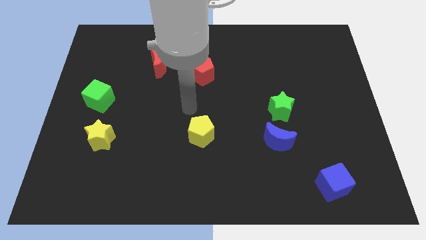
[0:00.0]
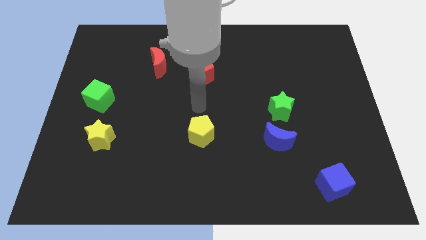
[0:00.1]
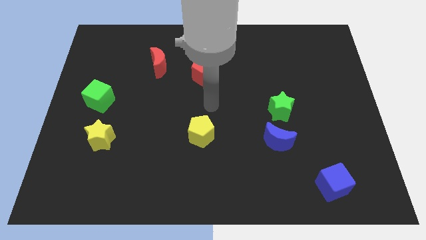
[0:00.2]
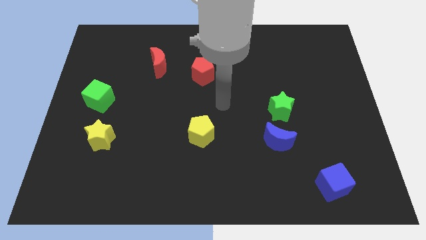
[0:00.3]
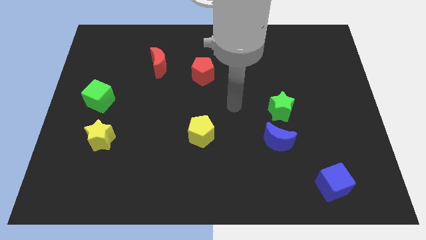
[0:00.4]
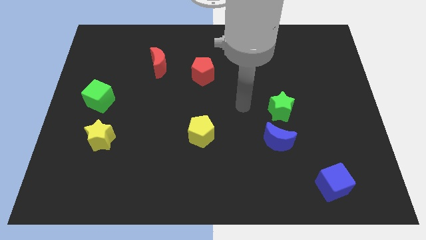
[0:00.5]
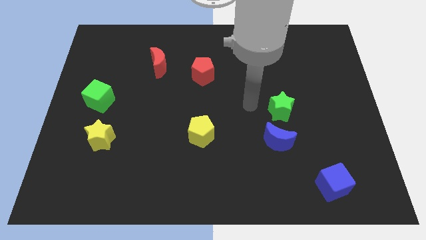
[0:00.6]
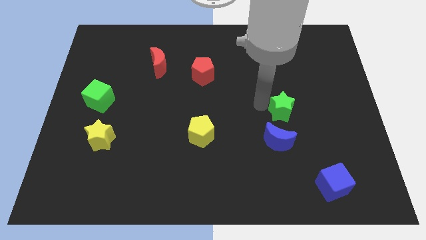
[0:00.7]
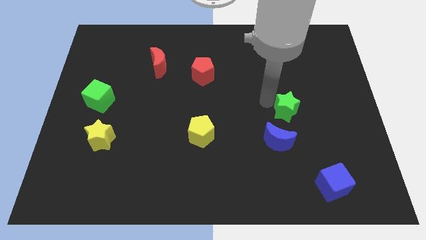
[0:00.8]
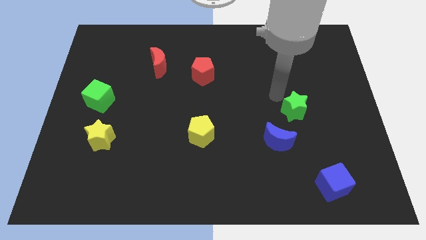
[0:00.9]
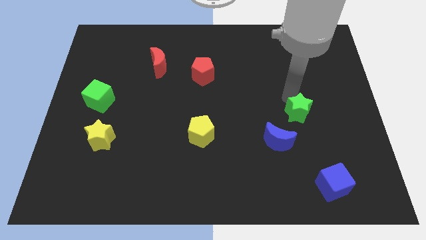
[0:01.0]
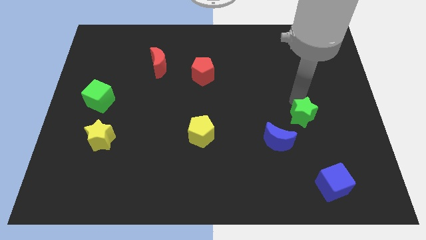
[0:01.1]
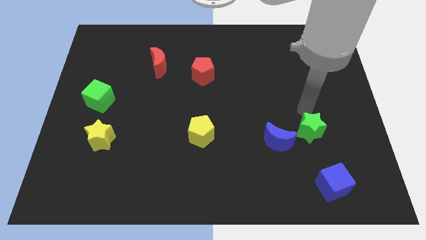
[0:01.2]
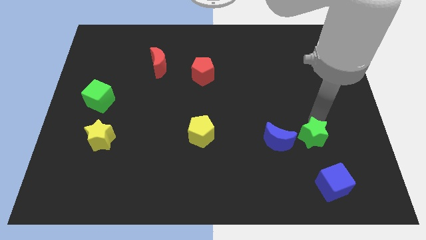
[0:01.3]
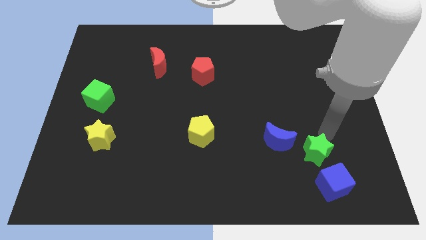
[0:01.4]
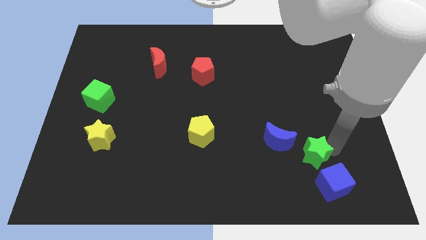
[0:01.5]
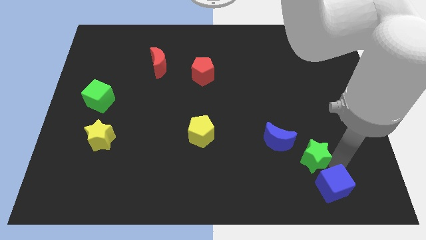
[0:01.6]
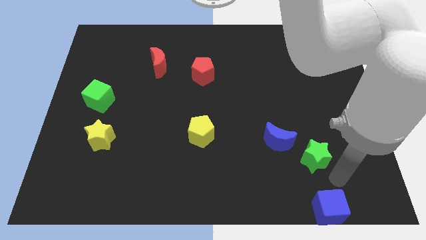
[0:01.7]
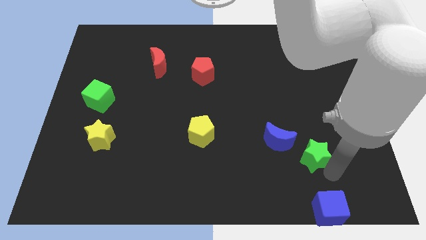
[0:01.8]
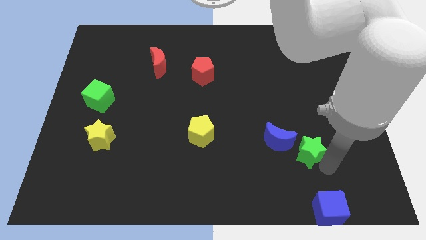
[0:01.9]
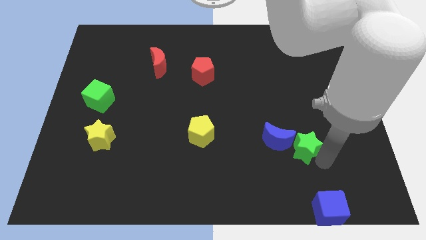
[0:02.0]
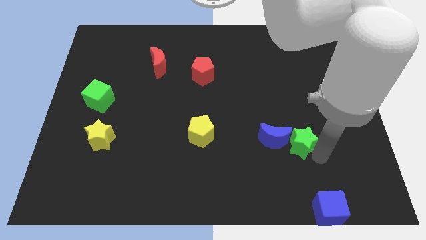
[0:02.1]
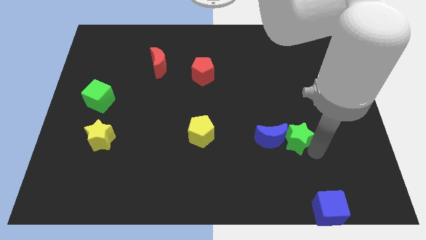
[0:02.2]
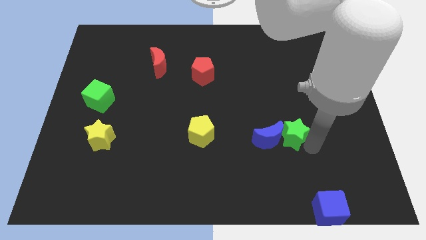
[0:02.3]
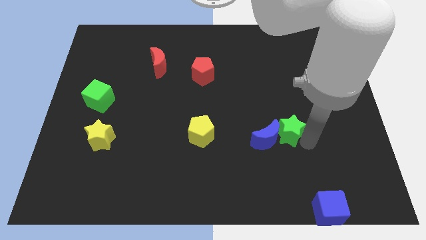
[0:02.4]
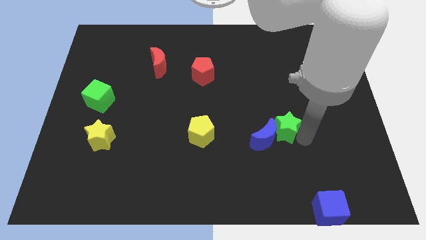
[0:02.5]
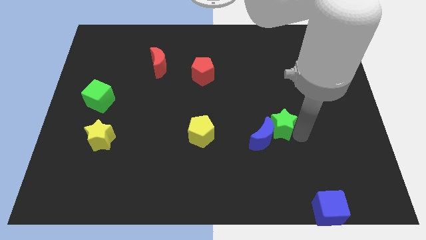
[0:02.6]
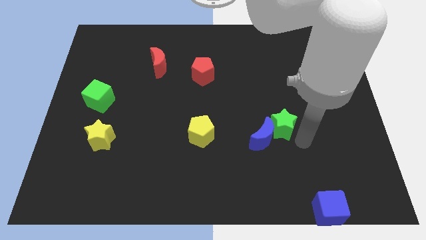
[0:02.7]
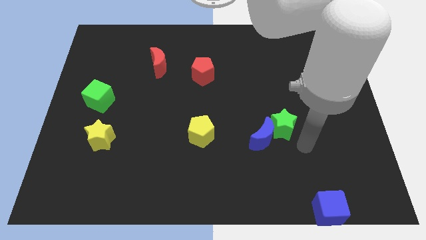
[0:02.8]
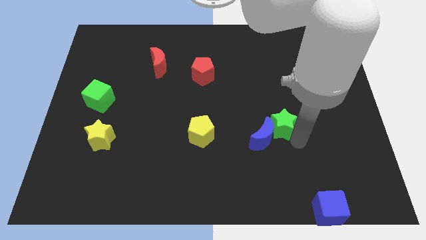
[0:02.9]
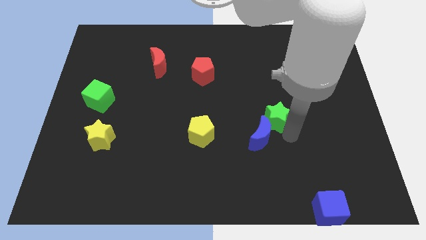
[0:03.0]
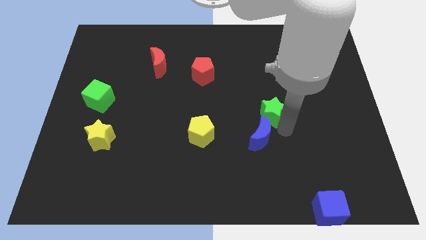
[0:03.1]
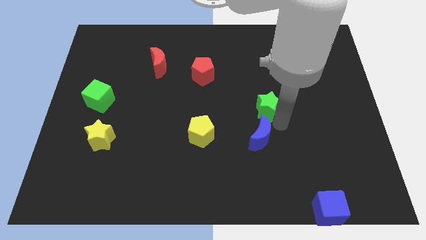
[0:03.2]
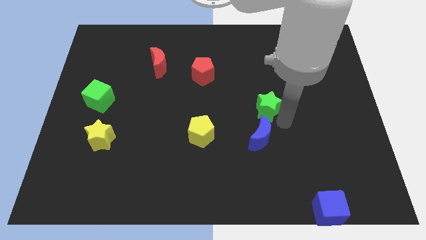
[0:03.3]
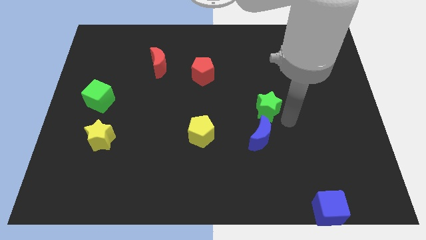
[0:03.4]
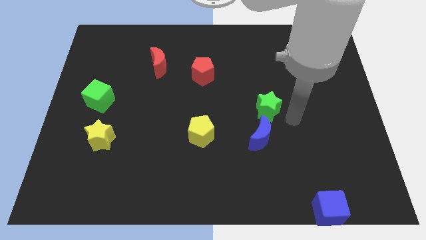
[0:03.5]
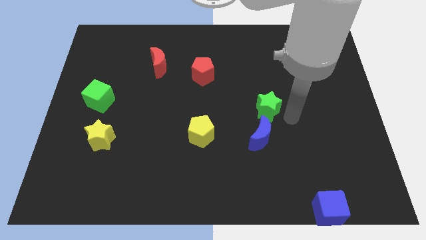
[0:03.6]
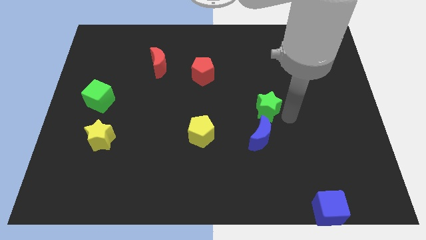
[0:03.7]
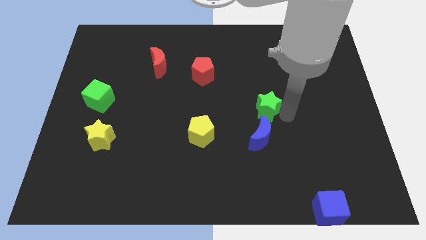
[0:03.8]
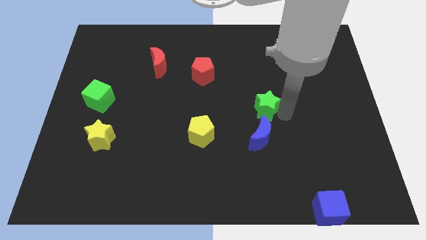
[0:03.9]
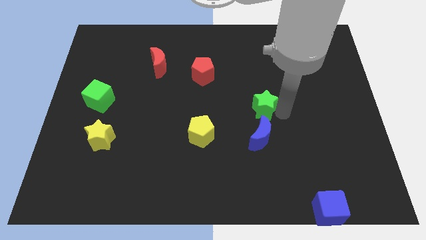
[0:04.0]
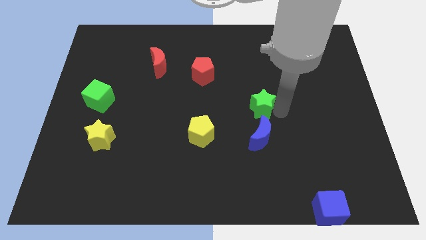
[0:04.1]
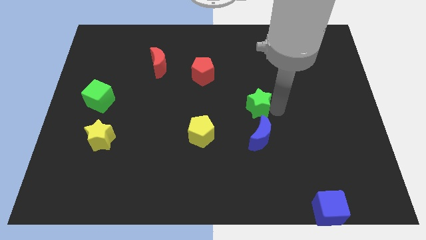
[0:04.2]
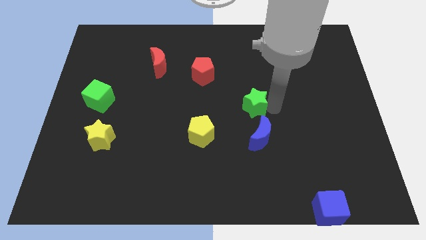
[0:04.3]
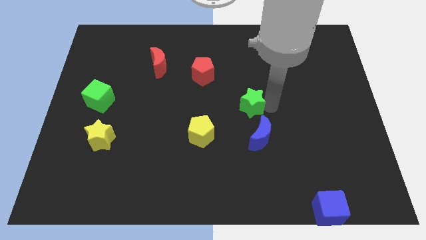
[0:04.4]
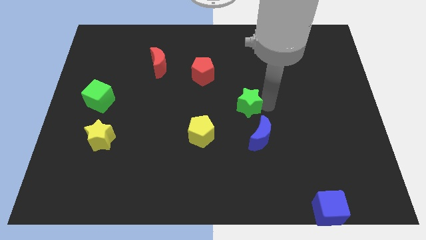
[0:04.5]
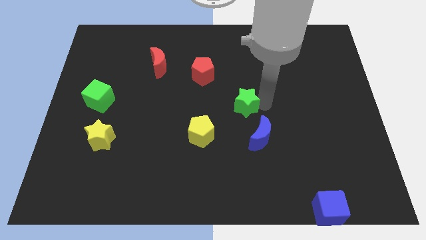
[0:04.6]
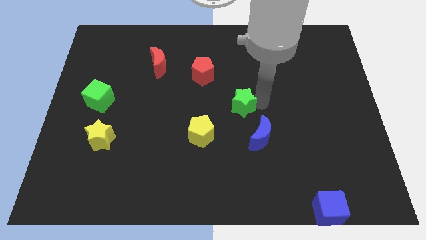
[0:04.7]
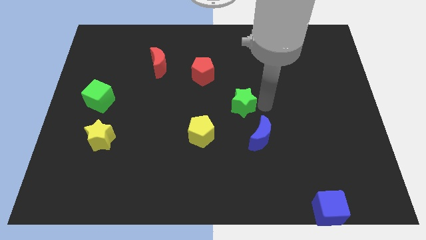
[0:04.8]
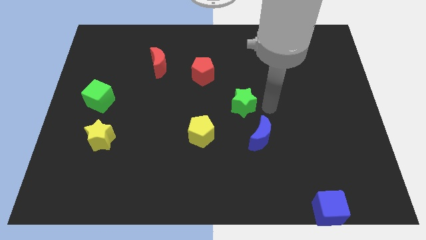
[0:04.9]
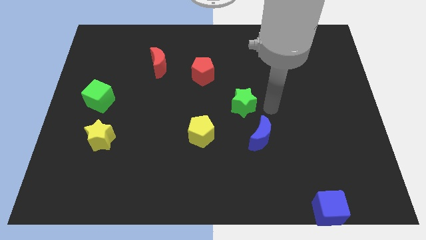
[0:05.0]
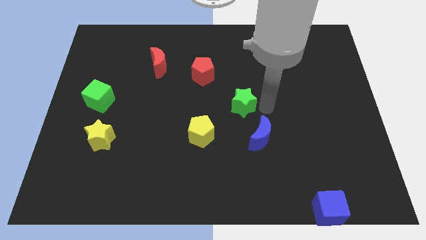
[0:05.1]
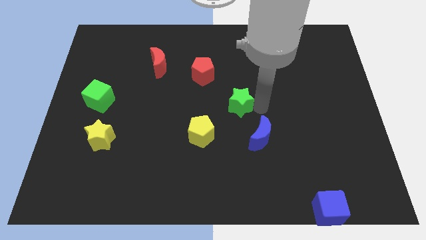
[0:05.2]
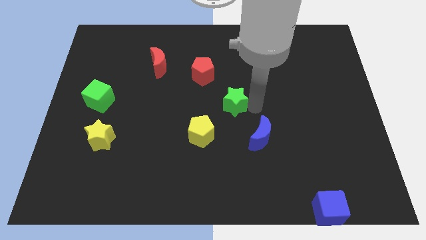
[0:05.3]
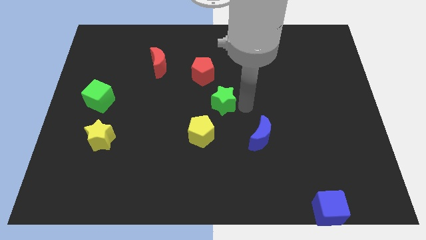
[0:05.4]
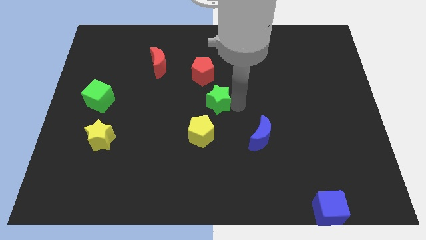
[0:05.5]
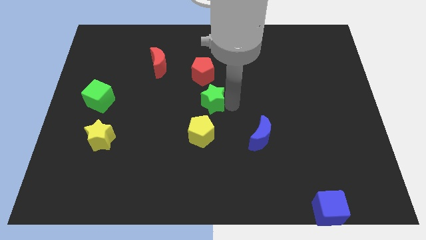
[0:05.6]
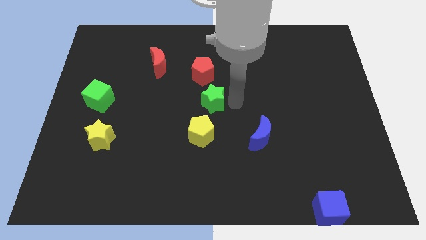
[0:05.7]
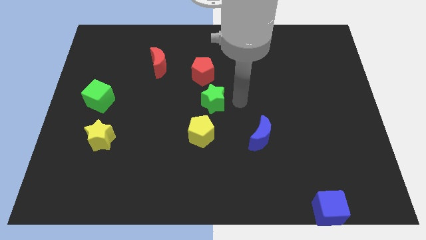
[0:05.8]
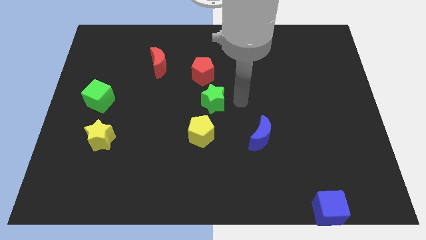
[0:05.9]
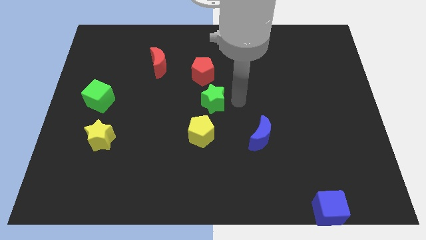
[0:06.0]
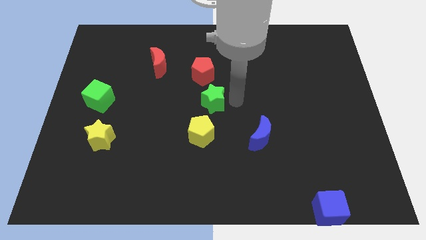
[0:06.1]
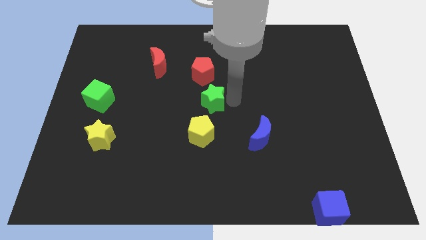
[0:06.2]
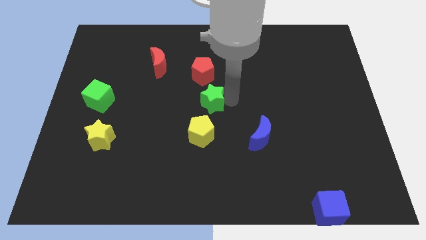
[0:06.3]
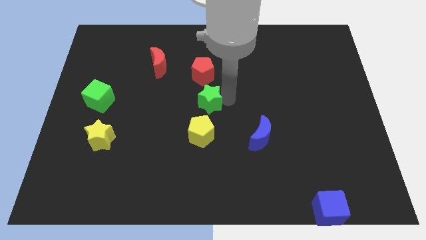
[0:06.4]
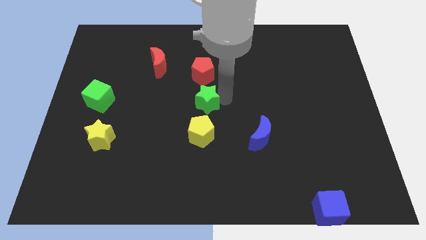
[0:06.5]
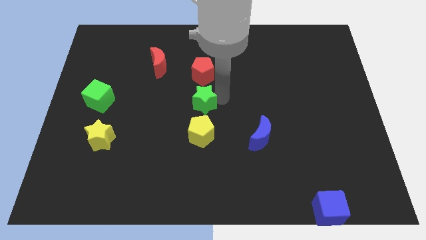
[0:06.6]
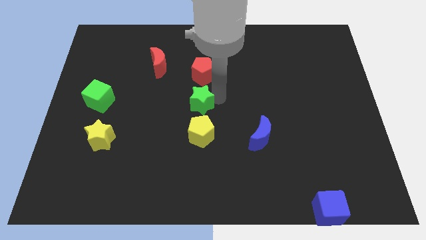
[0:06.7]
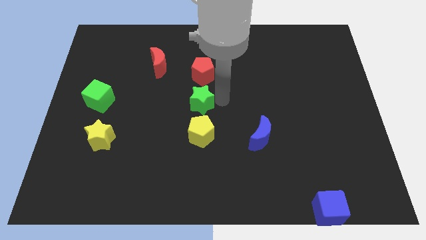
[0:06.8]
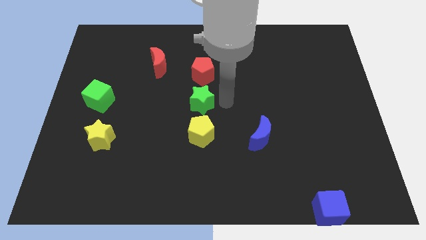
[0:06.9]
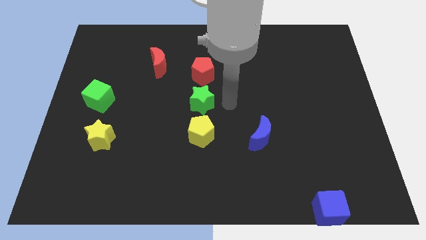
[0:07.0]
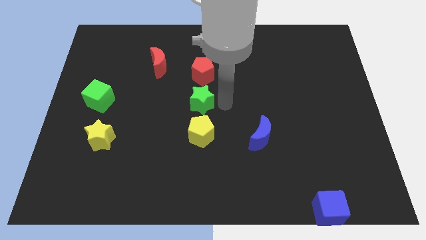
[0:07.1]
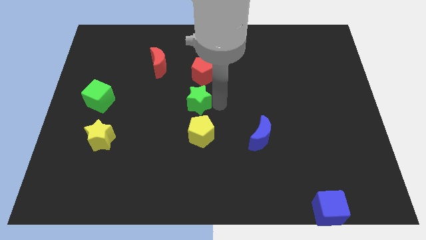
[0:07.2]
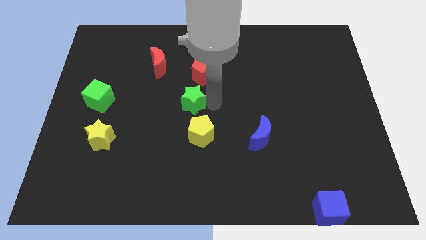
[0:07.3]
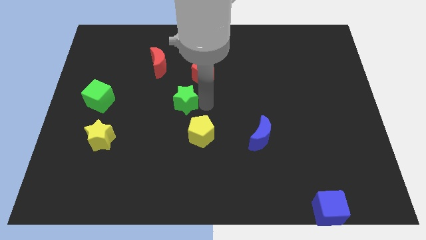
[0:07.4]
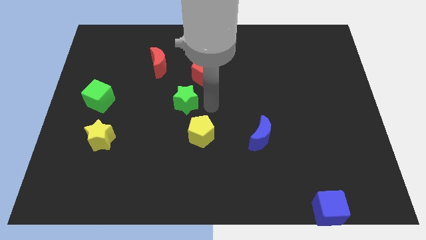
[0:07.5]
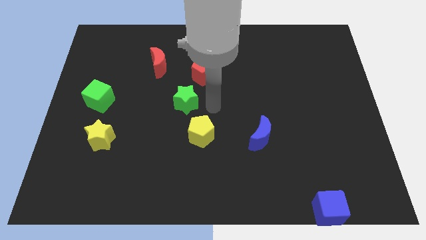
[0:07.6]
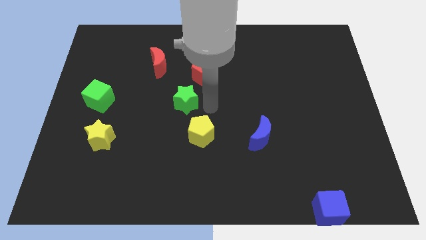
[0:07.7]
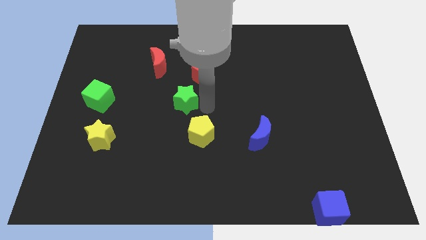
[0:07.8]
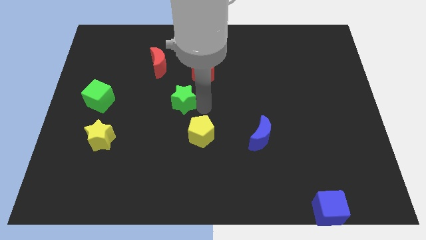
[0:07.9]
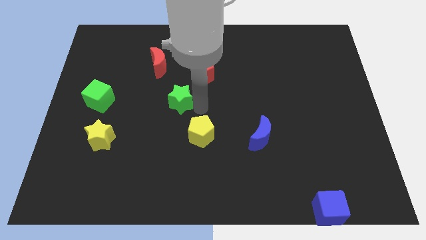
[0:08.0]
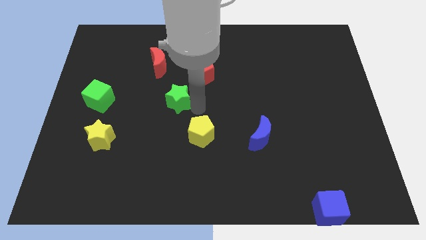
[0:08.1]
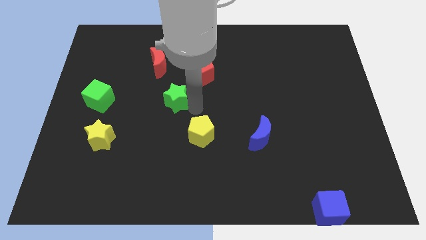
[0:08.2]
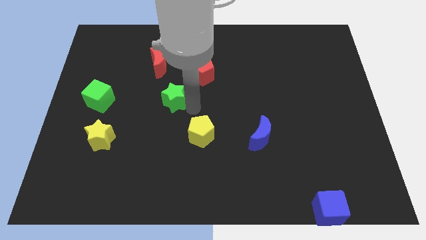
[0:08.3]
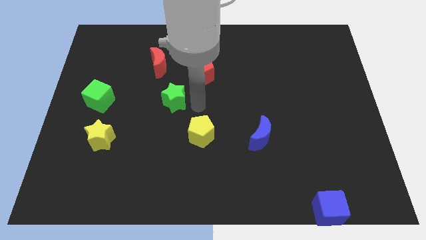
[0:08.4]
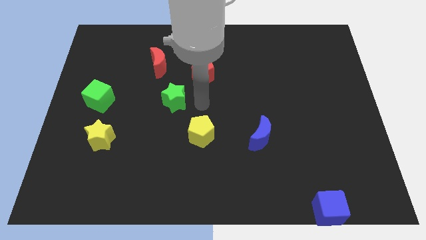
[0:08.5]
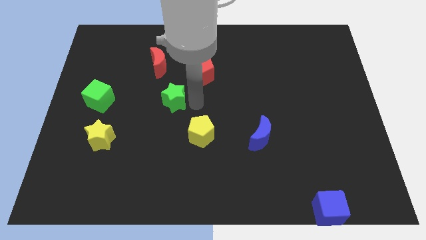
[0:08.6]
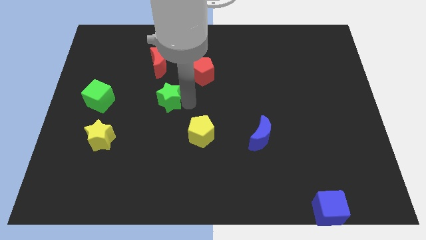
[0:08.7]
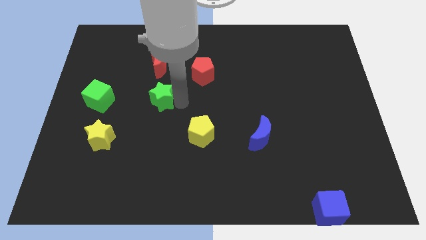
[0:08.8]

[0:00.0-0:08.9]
put the green star to the right of the green cube
